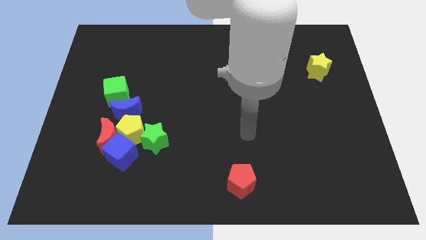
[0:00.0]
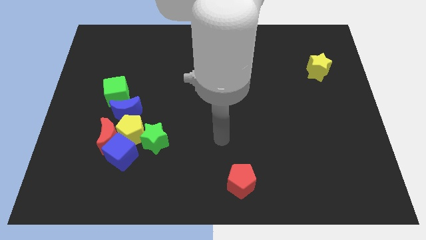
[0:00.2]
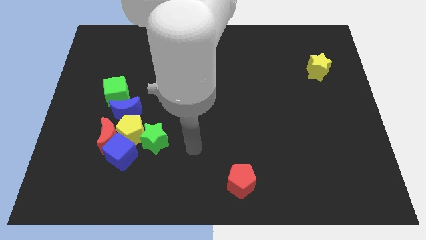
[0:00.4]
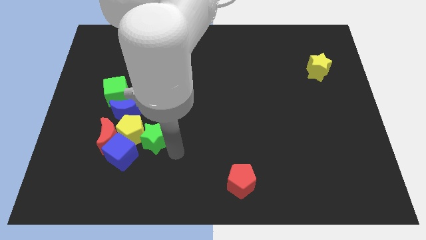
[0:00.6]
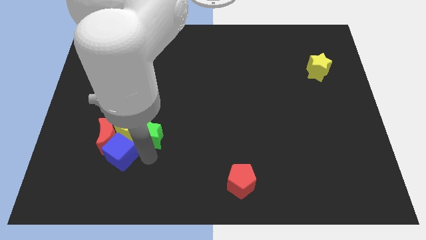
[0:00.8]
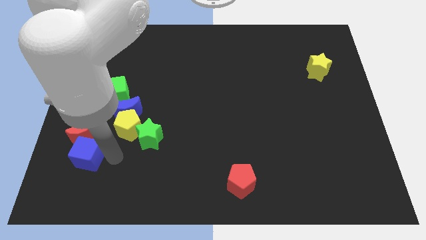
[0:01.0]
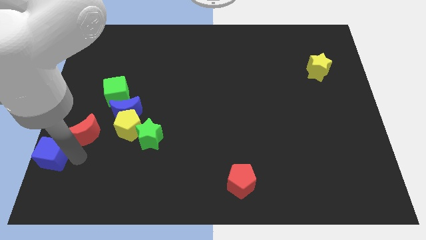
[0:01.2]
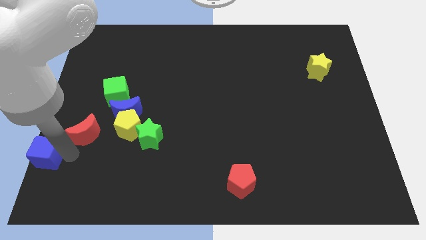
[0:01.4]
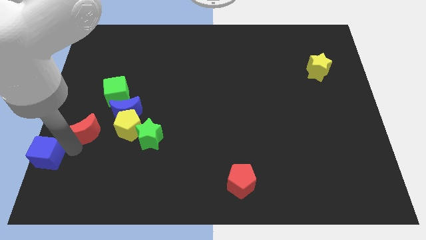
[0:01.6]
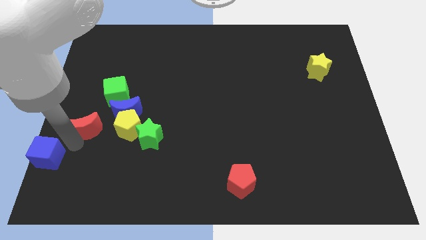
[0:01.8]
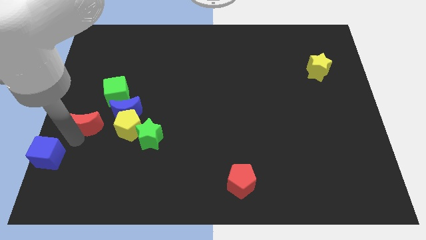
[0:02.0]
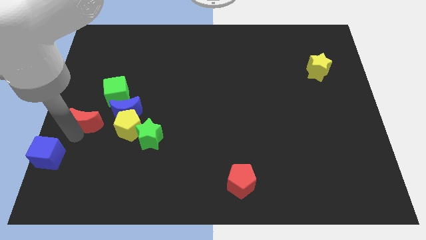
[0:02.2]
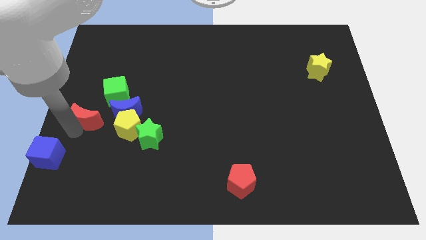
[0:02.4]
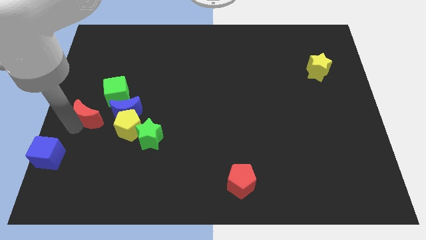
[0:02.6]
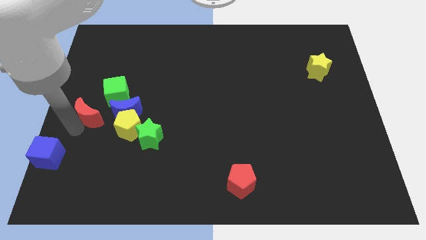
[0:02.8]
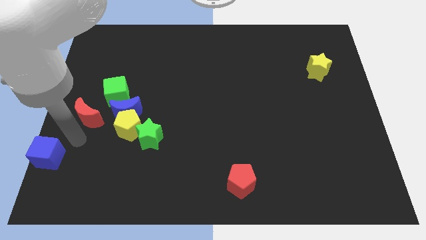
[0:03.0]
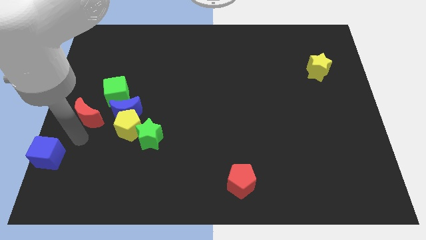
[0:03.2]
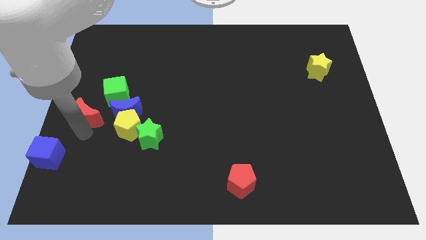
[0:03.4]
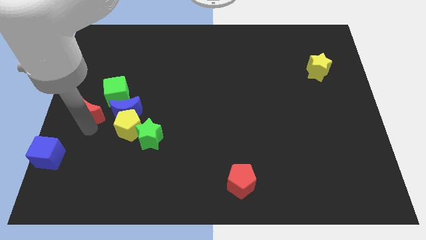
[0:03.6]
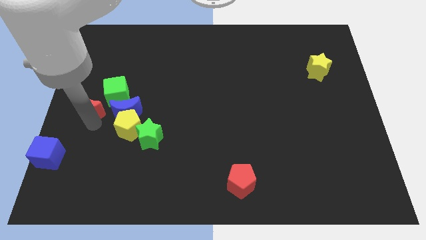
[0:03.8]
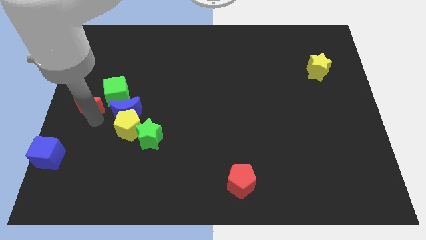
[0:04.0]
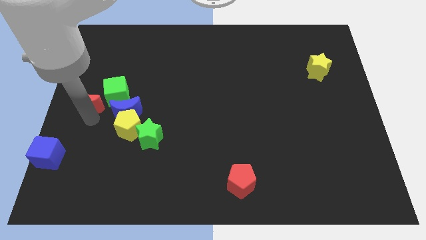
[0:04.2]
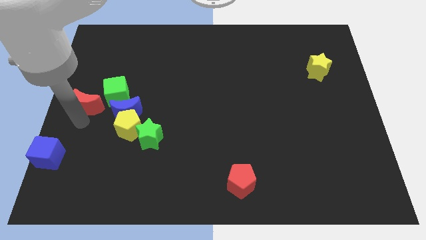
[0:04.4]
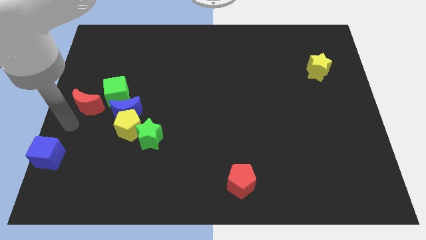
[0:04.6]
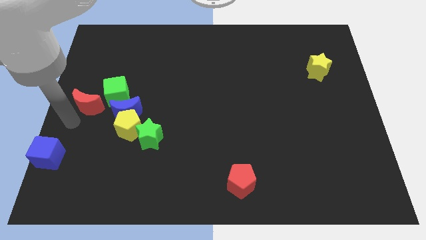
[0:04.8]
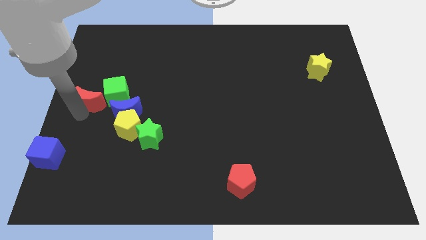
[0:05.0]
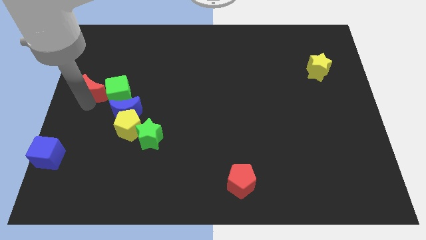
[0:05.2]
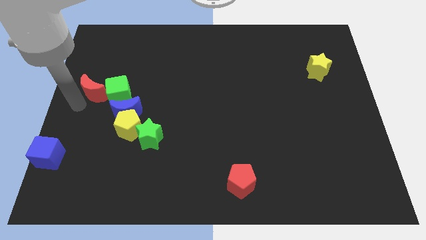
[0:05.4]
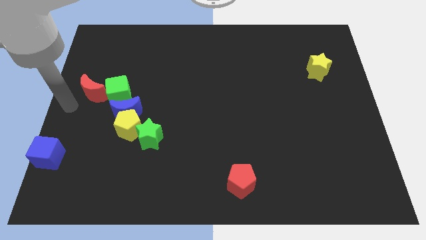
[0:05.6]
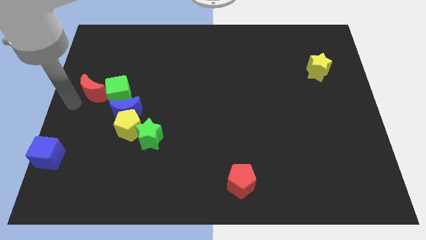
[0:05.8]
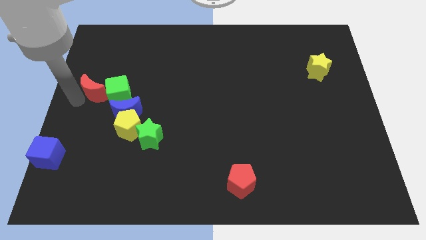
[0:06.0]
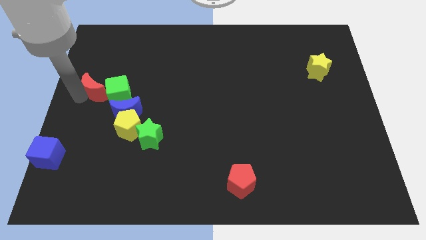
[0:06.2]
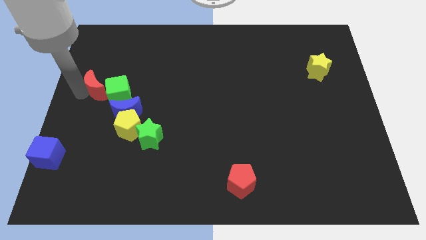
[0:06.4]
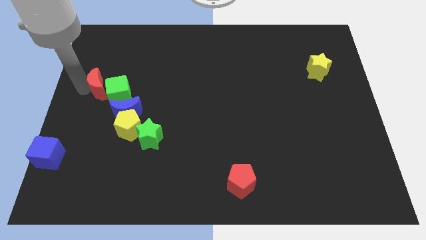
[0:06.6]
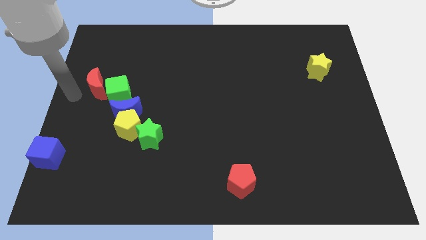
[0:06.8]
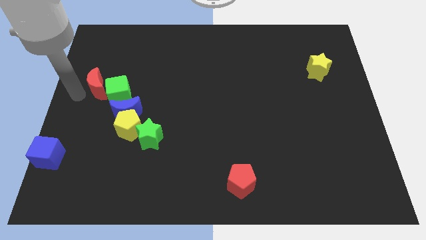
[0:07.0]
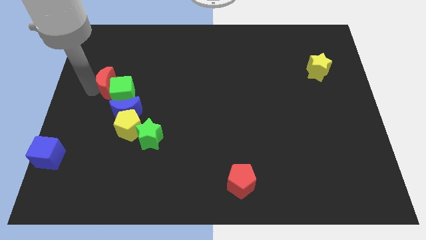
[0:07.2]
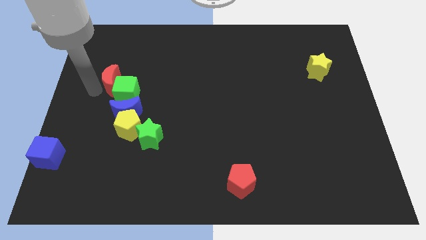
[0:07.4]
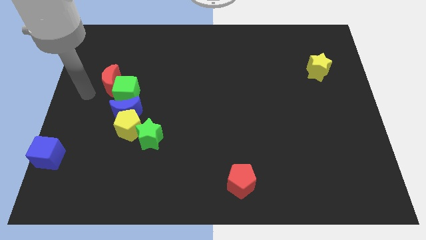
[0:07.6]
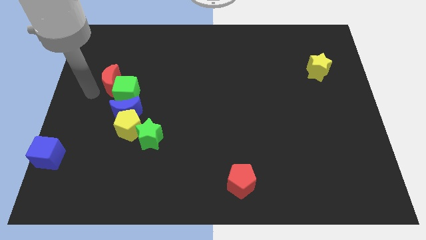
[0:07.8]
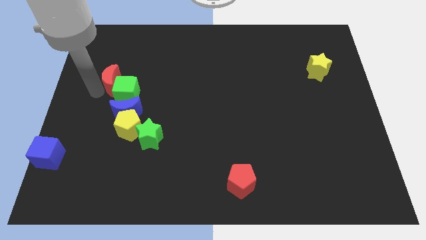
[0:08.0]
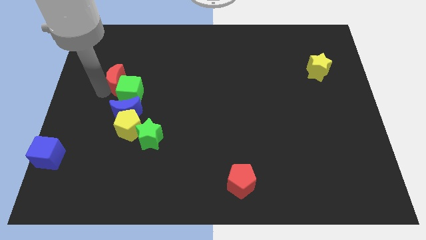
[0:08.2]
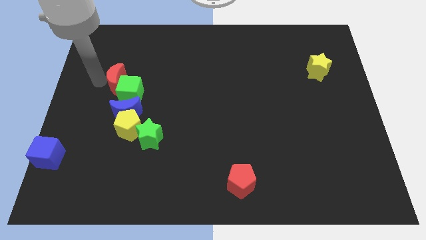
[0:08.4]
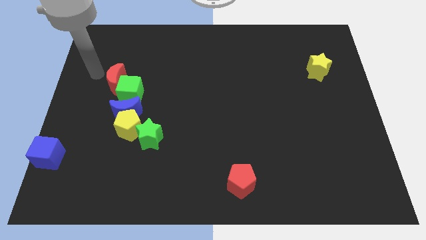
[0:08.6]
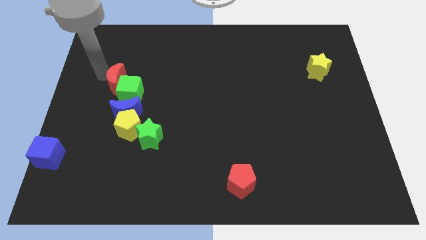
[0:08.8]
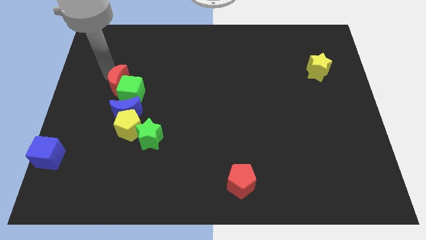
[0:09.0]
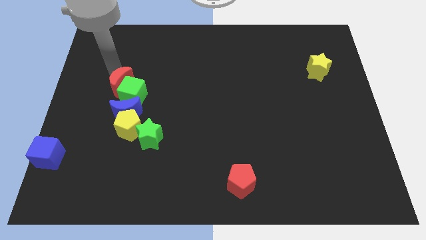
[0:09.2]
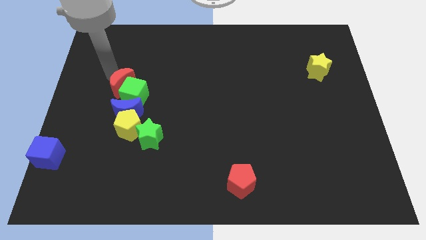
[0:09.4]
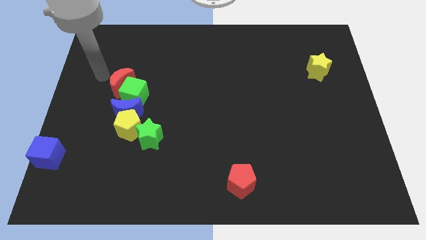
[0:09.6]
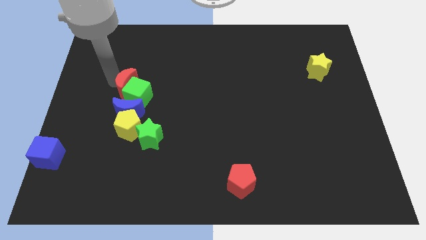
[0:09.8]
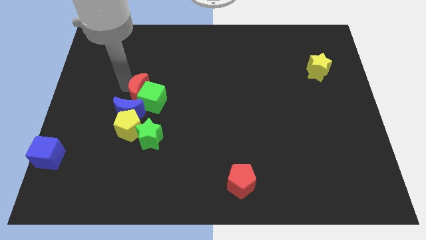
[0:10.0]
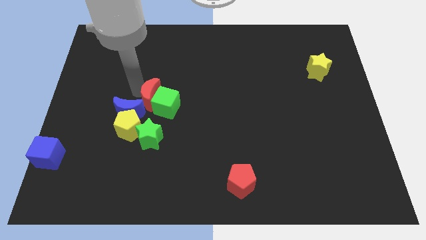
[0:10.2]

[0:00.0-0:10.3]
push the red moon right of the blue moon

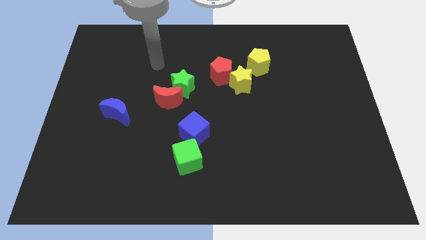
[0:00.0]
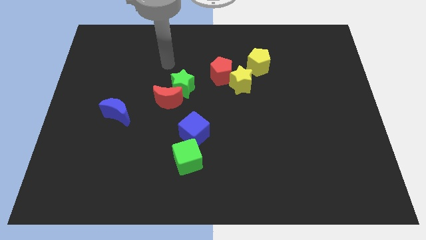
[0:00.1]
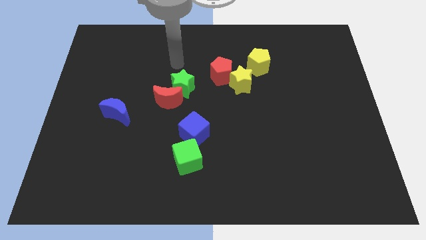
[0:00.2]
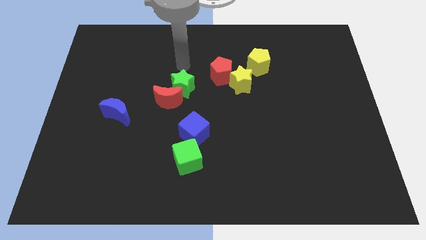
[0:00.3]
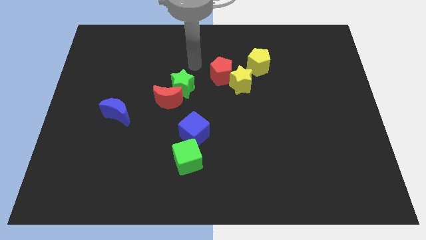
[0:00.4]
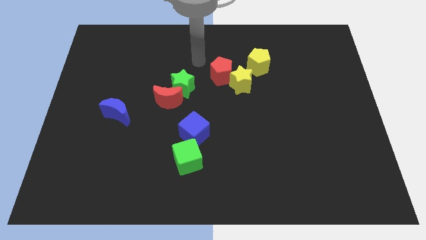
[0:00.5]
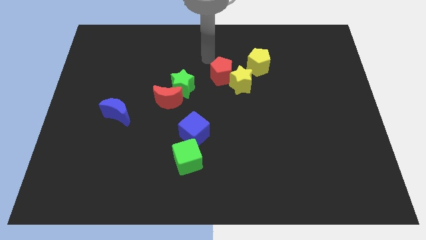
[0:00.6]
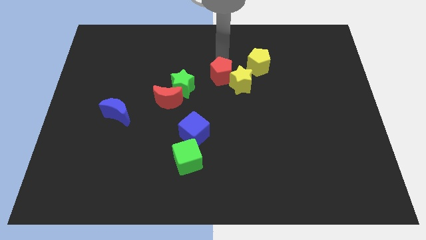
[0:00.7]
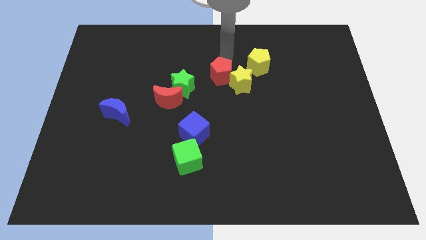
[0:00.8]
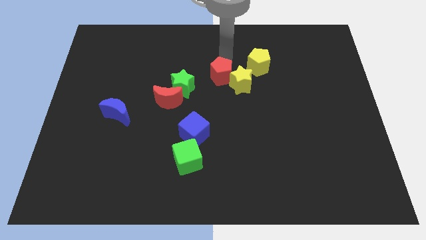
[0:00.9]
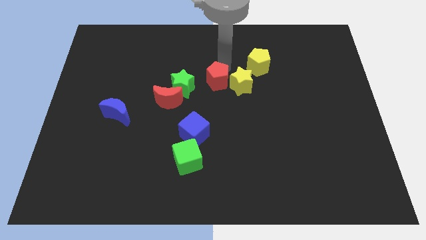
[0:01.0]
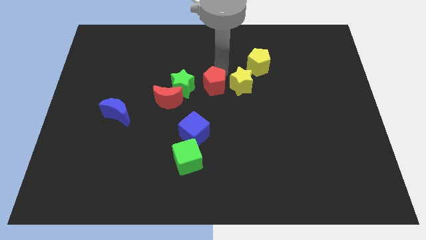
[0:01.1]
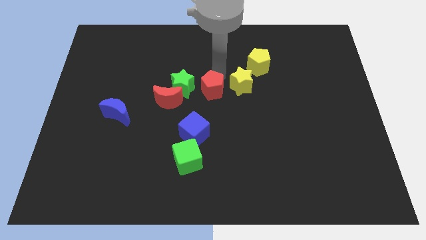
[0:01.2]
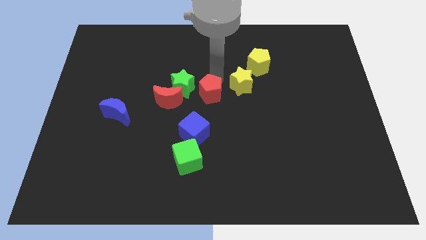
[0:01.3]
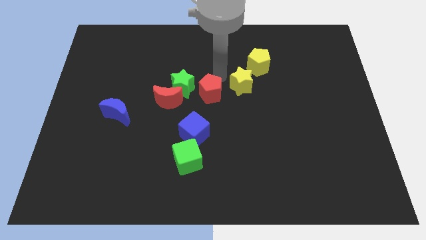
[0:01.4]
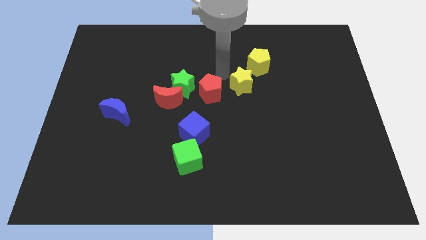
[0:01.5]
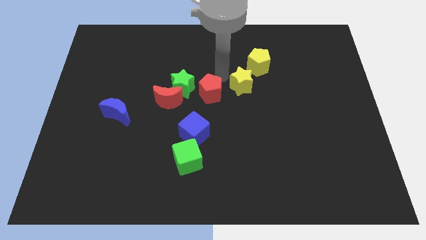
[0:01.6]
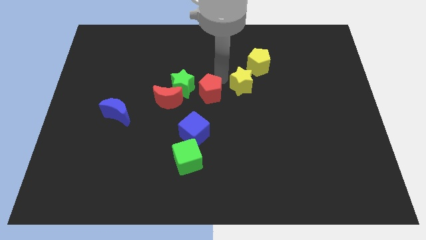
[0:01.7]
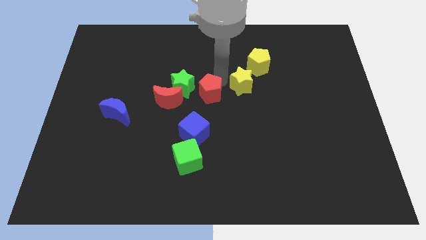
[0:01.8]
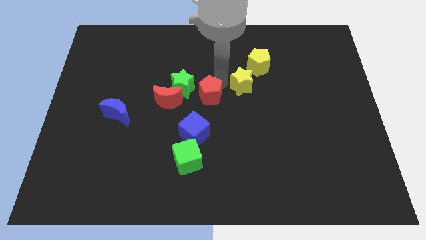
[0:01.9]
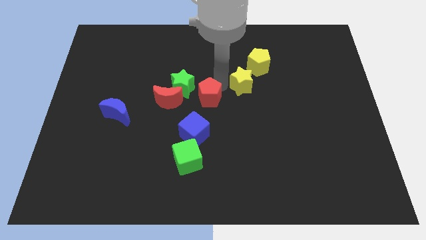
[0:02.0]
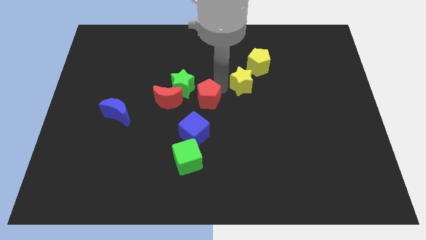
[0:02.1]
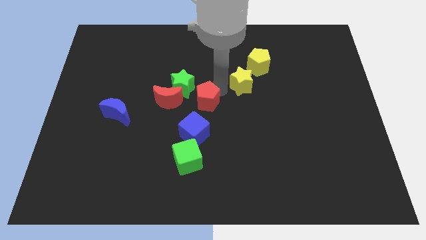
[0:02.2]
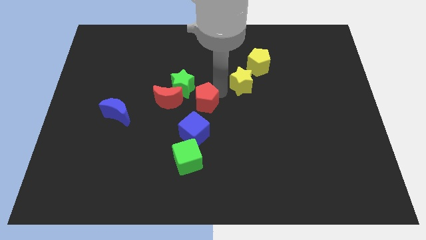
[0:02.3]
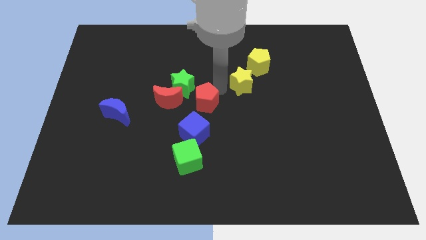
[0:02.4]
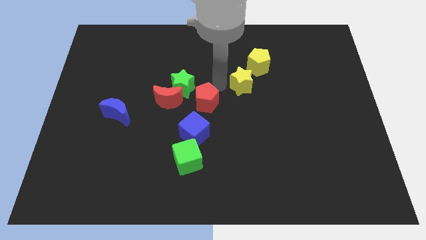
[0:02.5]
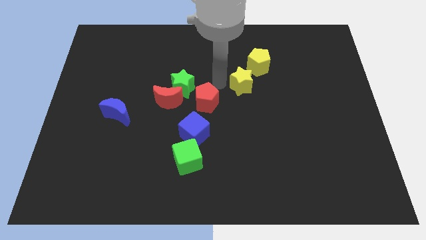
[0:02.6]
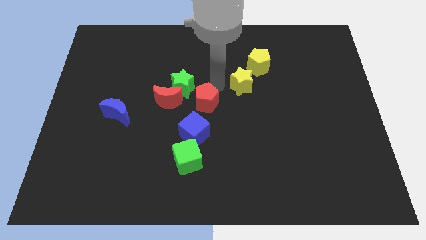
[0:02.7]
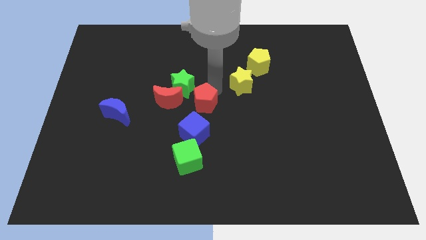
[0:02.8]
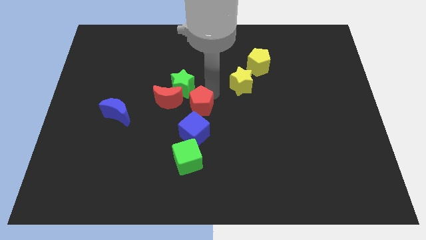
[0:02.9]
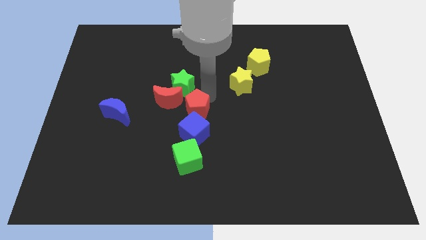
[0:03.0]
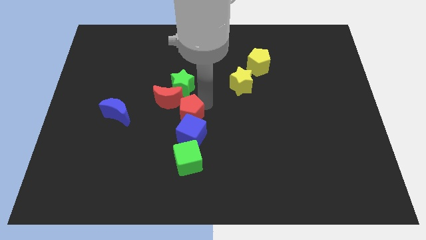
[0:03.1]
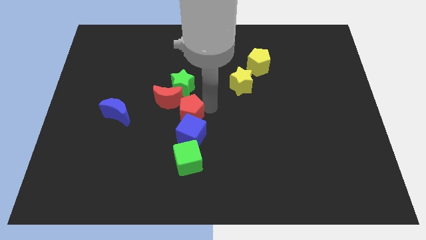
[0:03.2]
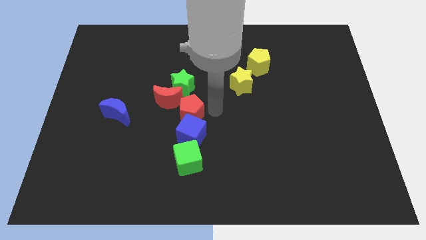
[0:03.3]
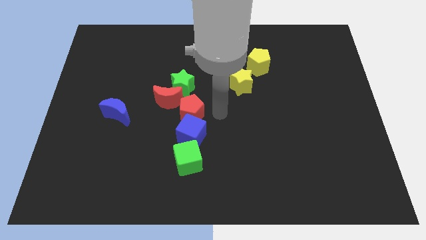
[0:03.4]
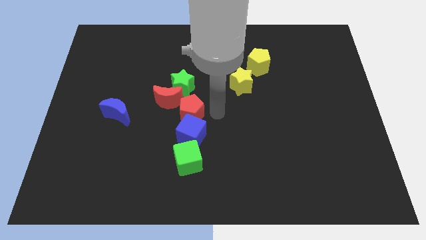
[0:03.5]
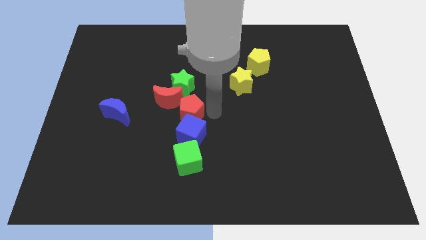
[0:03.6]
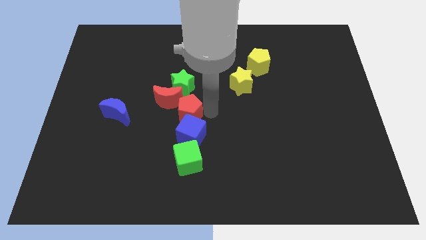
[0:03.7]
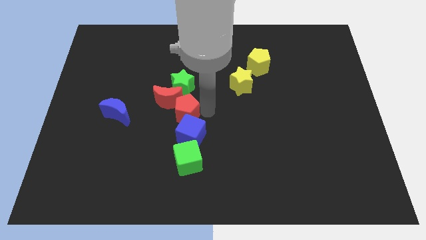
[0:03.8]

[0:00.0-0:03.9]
push the red pentagon to the right side of the blue moon
